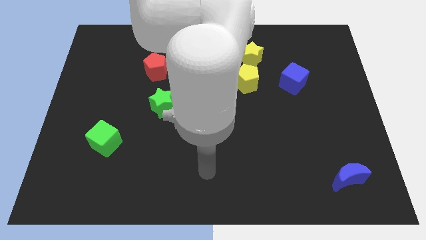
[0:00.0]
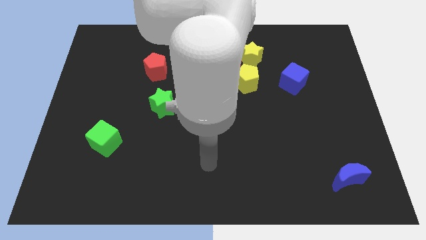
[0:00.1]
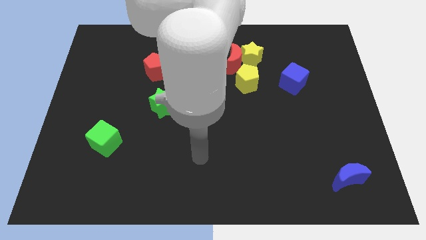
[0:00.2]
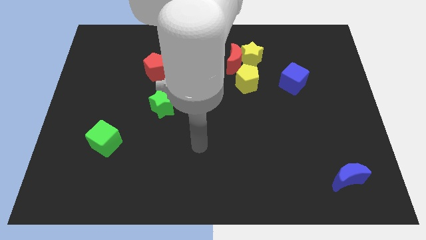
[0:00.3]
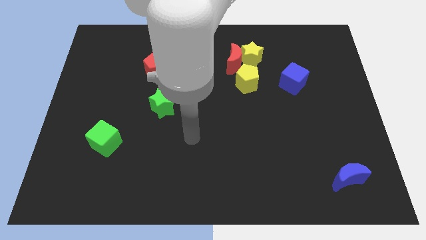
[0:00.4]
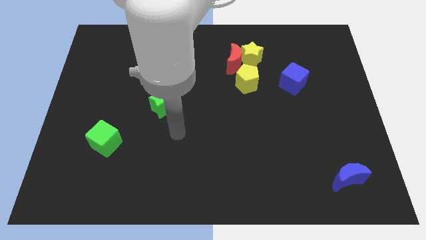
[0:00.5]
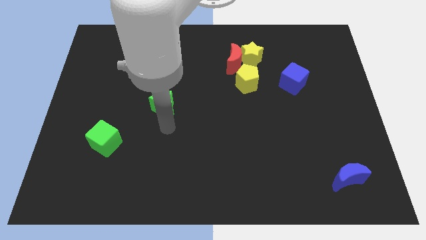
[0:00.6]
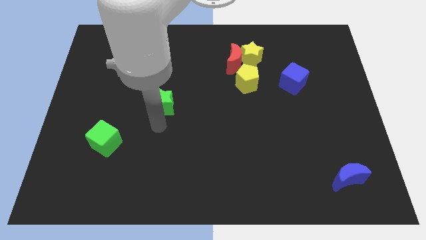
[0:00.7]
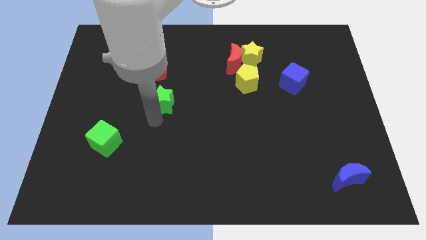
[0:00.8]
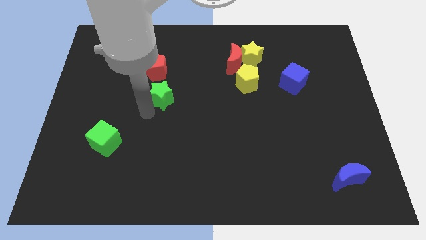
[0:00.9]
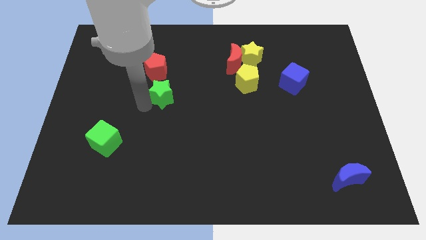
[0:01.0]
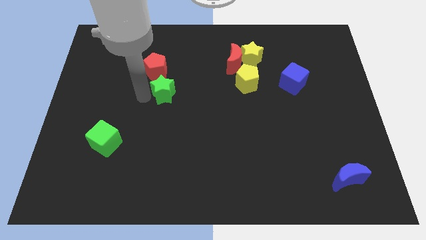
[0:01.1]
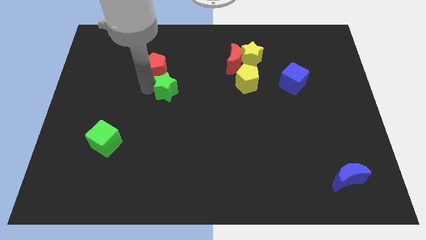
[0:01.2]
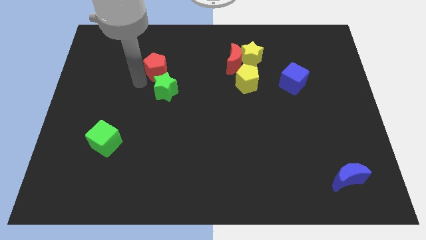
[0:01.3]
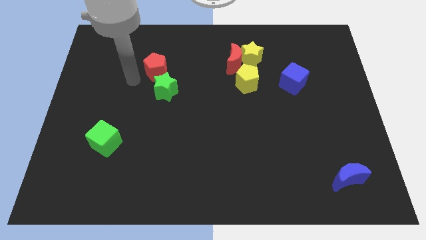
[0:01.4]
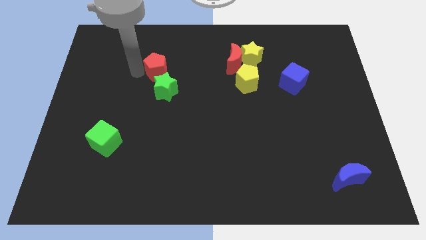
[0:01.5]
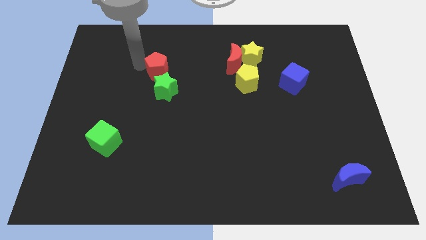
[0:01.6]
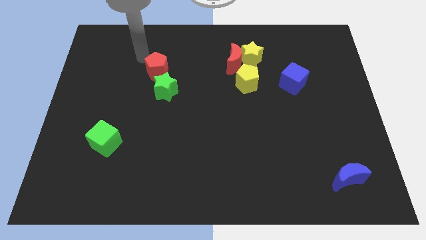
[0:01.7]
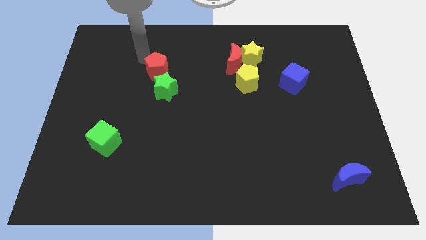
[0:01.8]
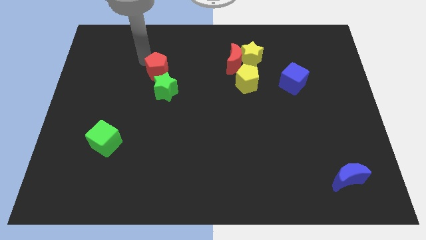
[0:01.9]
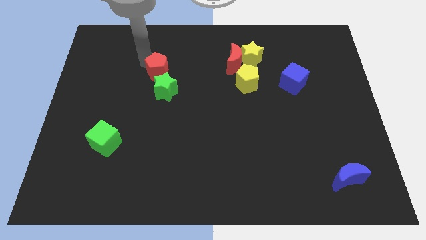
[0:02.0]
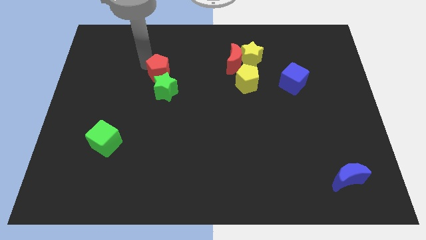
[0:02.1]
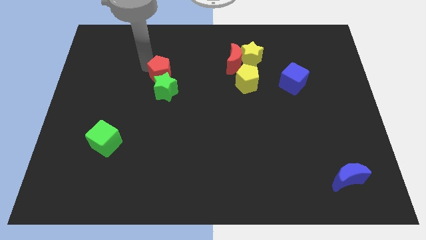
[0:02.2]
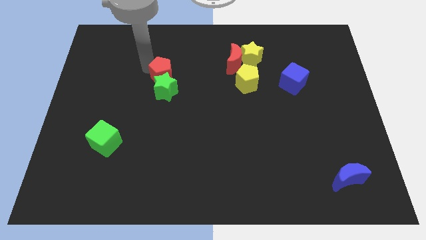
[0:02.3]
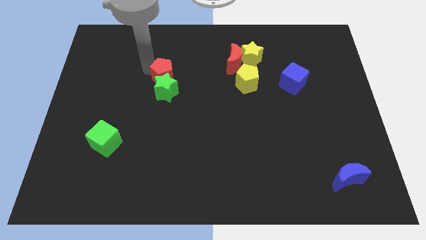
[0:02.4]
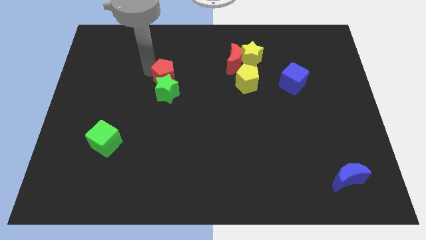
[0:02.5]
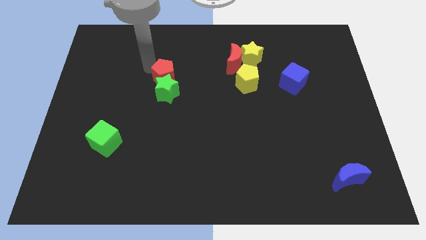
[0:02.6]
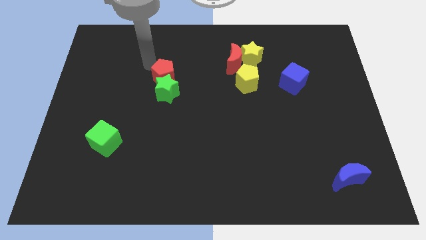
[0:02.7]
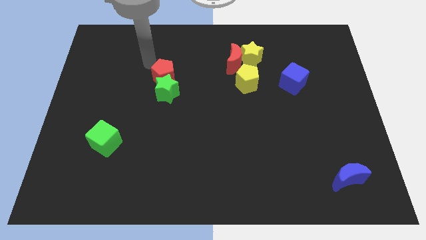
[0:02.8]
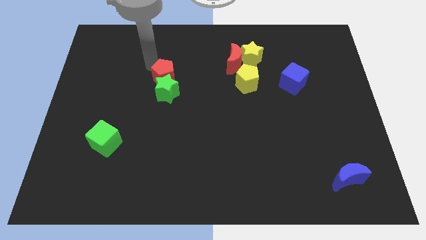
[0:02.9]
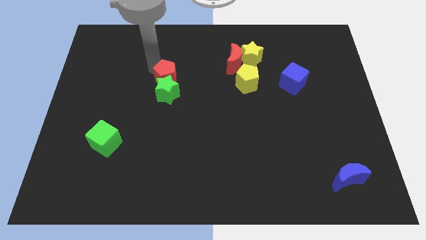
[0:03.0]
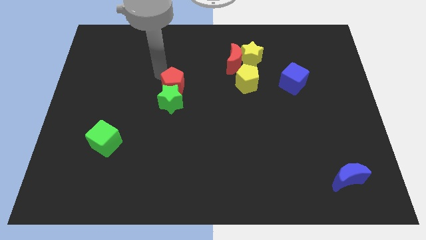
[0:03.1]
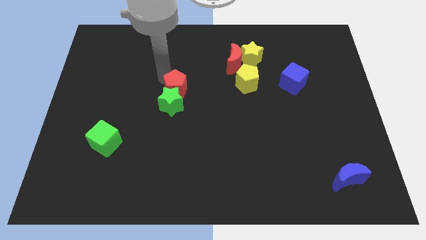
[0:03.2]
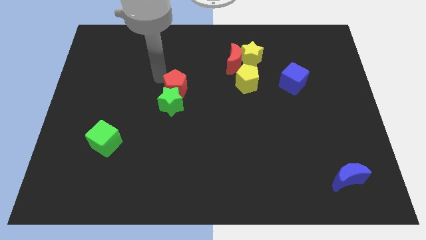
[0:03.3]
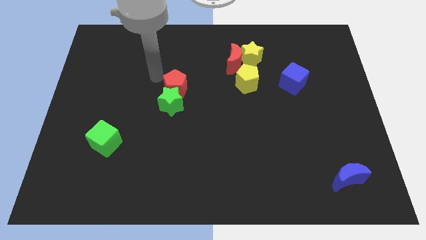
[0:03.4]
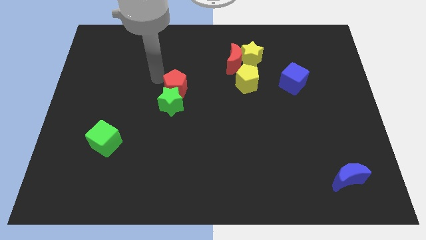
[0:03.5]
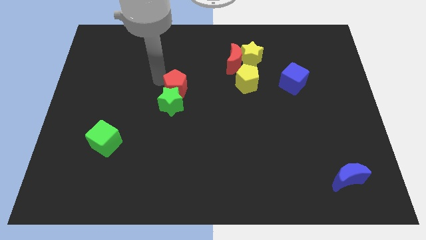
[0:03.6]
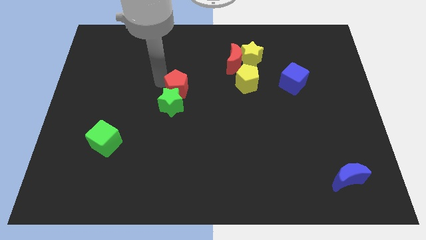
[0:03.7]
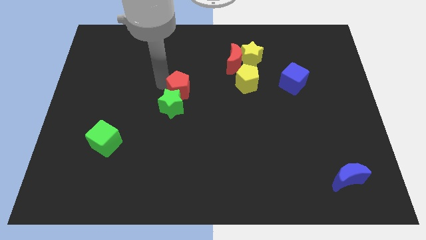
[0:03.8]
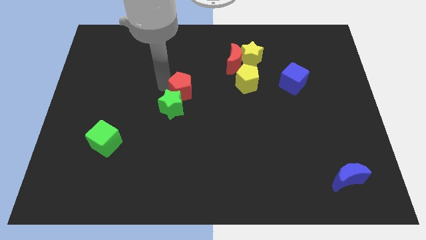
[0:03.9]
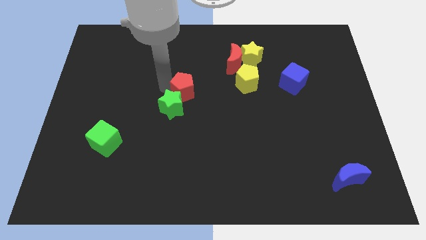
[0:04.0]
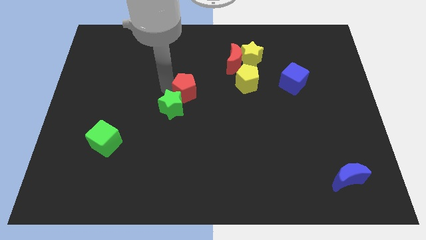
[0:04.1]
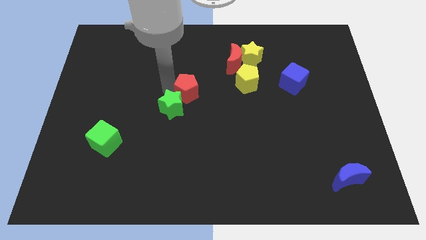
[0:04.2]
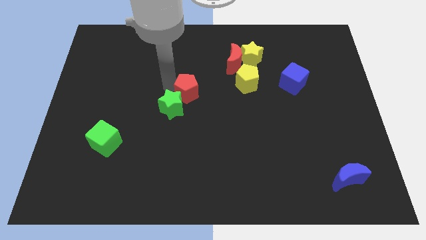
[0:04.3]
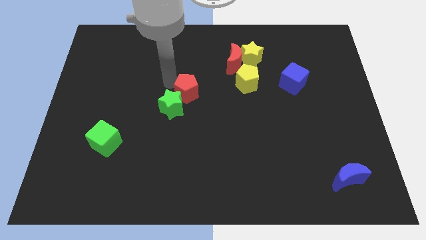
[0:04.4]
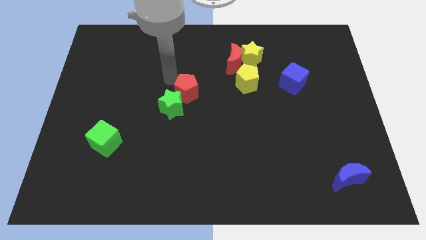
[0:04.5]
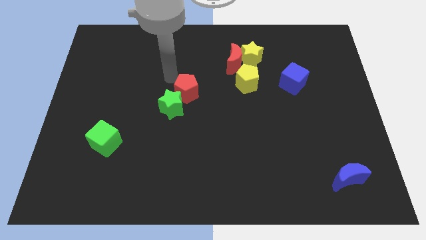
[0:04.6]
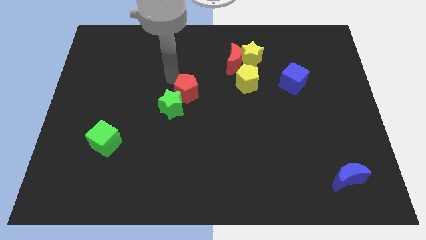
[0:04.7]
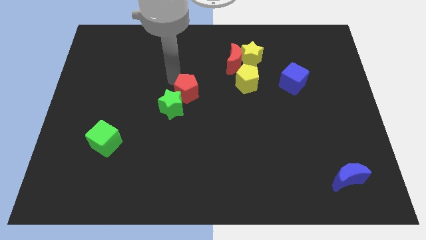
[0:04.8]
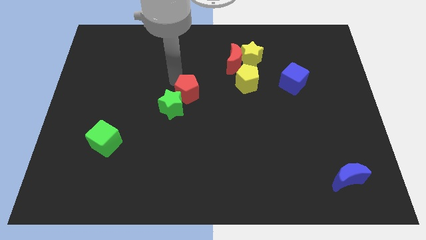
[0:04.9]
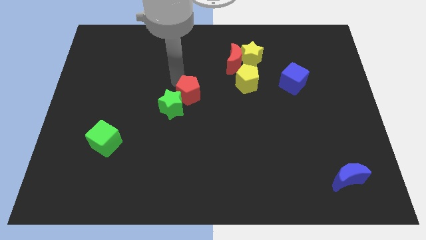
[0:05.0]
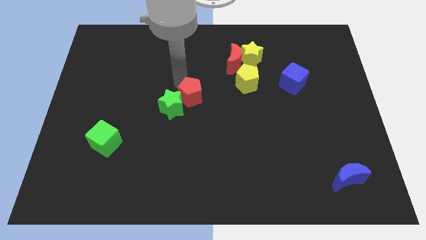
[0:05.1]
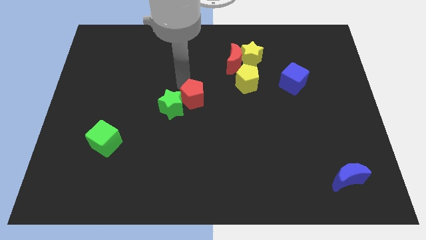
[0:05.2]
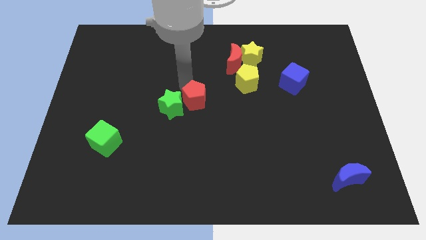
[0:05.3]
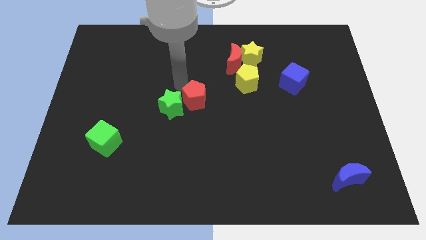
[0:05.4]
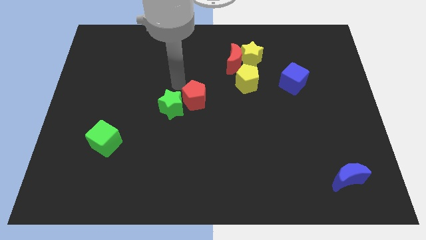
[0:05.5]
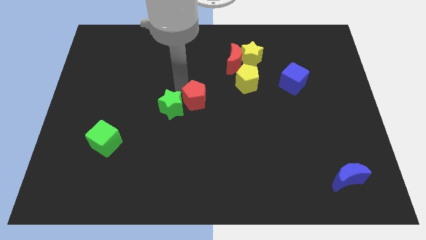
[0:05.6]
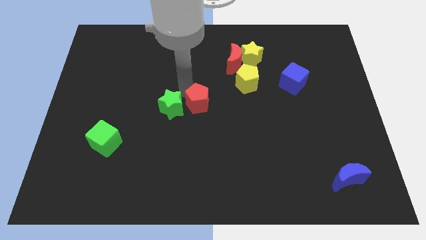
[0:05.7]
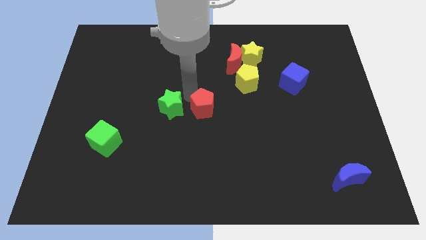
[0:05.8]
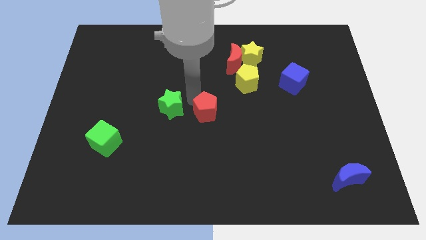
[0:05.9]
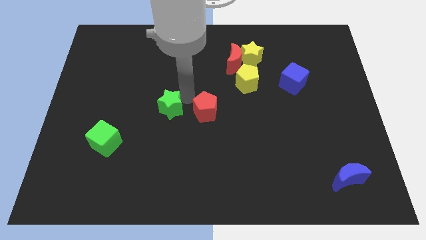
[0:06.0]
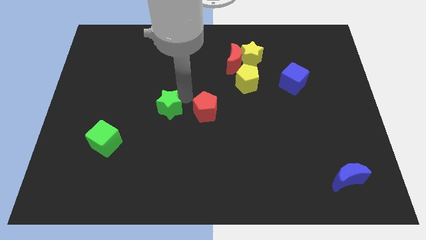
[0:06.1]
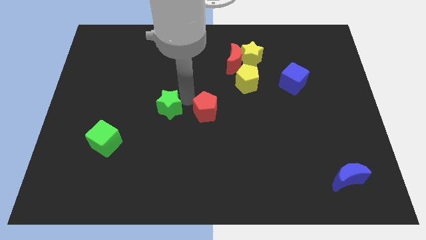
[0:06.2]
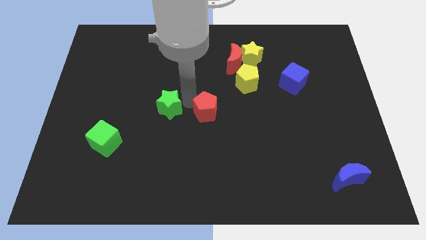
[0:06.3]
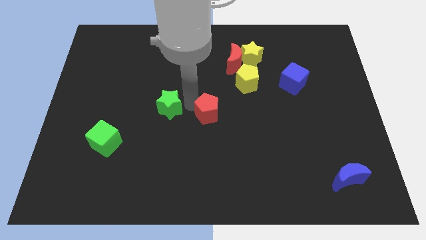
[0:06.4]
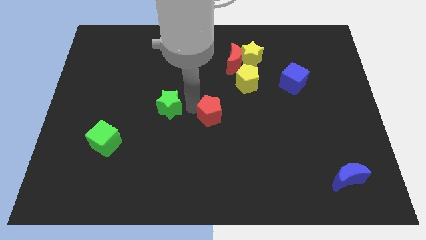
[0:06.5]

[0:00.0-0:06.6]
slide the red pentagon down and then right

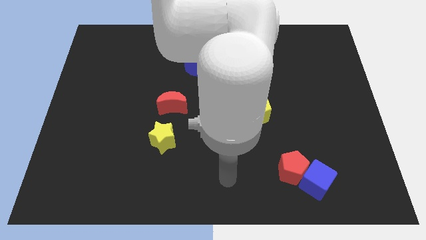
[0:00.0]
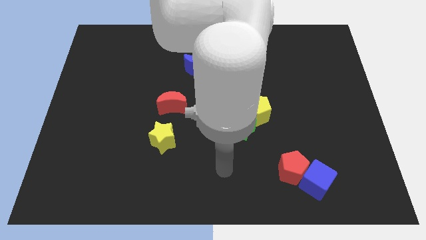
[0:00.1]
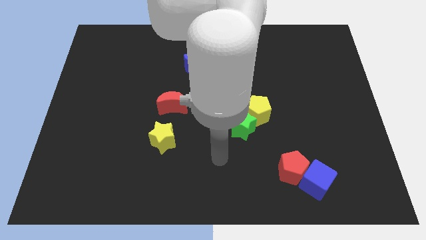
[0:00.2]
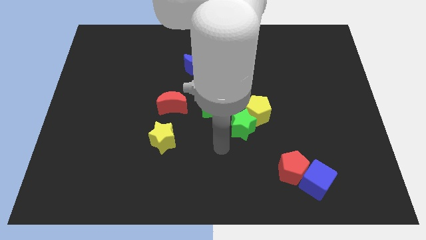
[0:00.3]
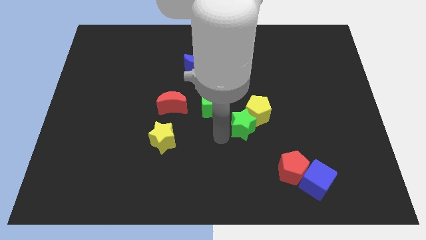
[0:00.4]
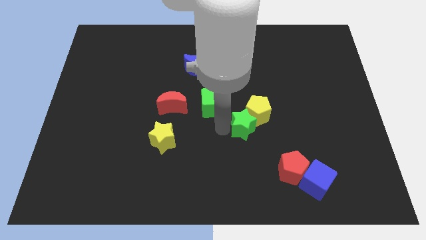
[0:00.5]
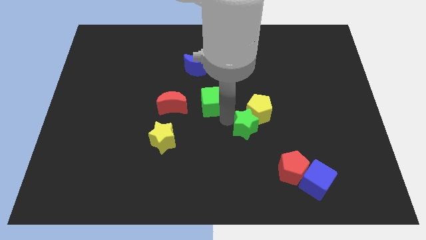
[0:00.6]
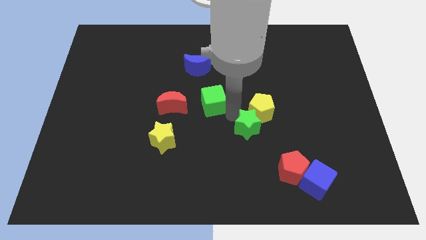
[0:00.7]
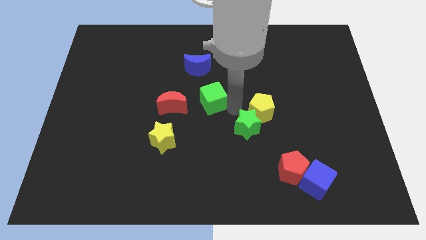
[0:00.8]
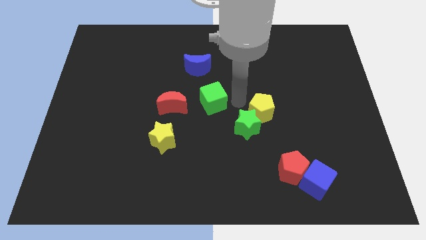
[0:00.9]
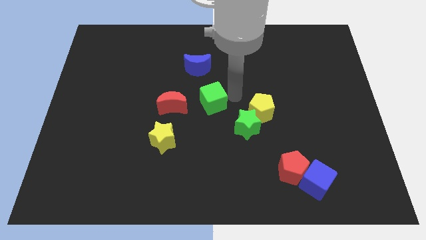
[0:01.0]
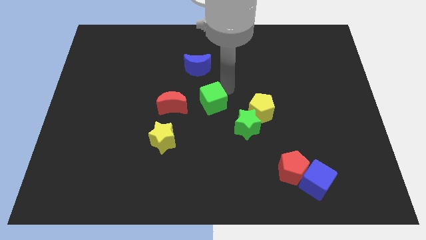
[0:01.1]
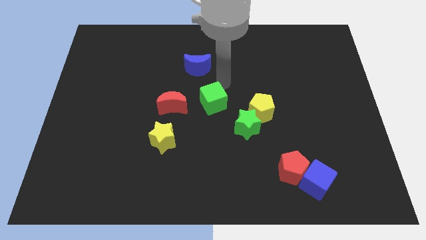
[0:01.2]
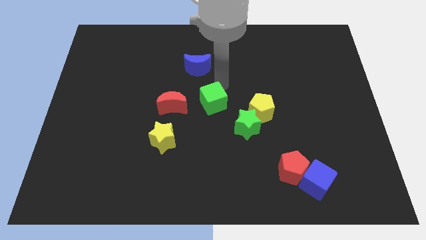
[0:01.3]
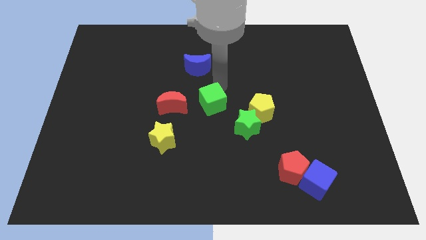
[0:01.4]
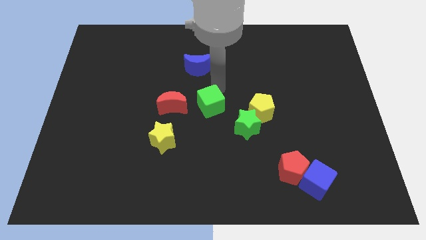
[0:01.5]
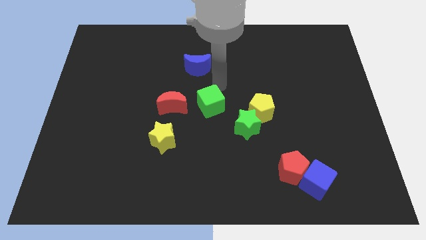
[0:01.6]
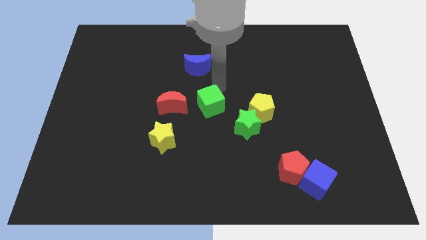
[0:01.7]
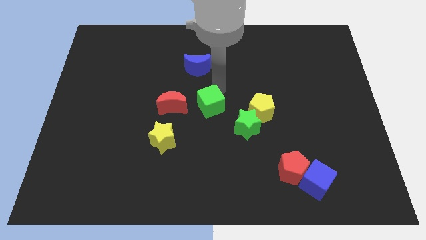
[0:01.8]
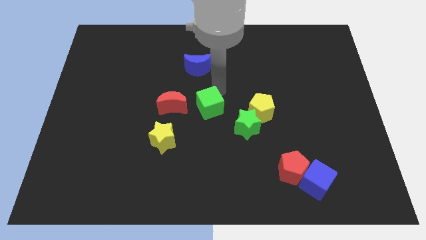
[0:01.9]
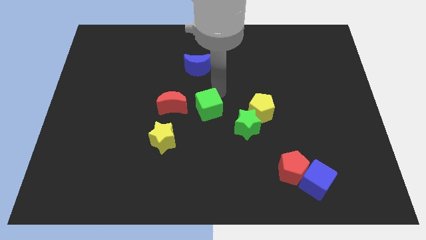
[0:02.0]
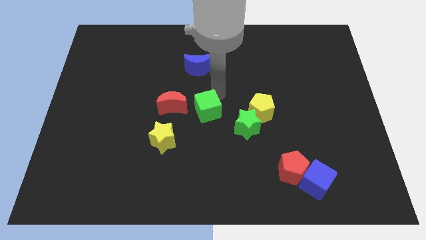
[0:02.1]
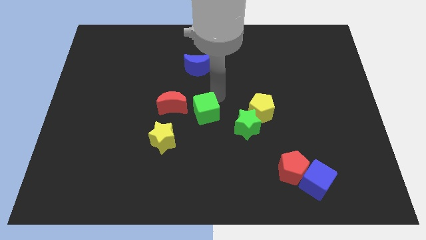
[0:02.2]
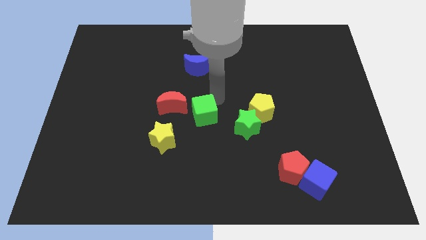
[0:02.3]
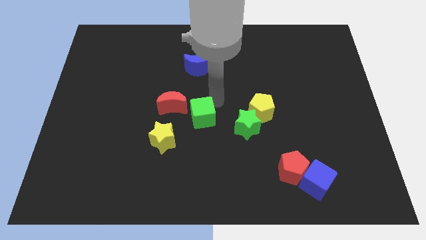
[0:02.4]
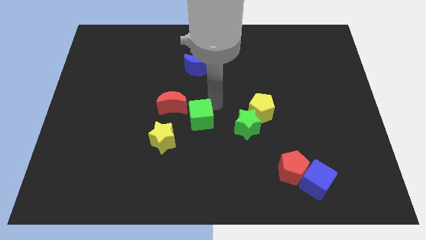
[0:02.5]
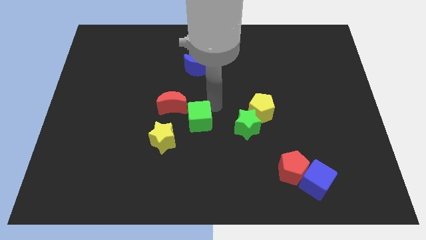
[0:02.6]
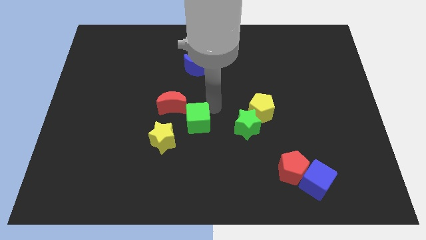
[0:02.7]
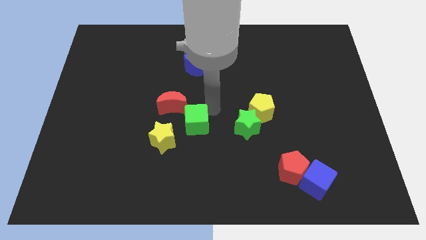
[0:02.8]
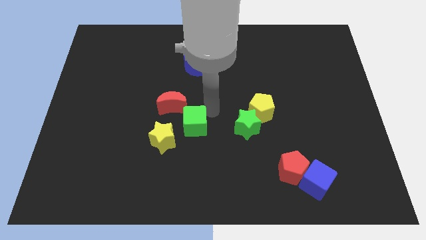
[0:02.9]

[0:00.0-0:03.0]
push the green cube a little bit down and to the left
